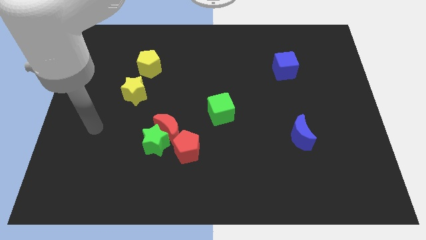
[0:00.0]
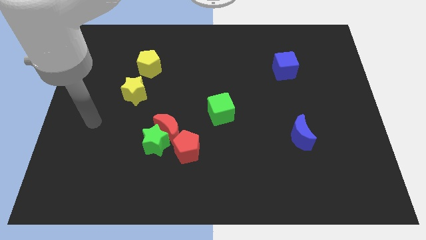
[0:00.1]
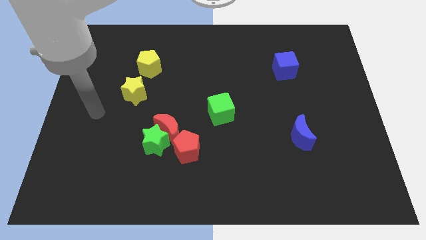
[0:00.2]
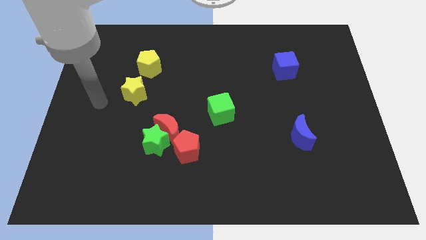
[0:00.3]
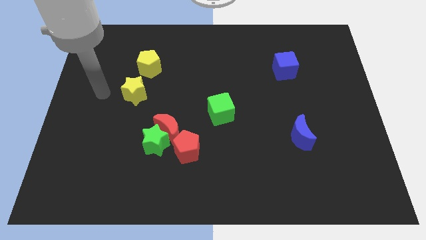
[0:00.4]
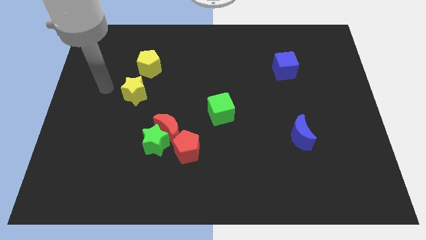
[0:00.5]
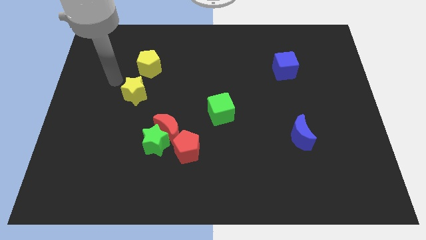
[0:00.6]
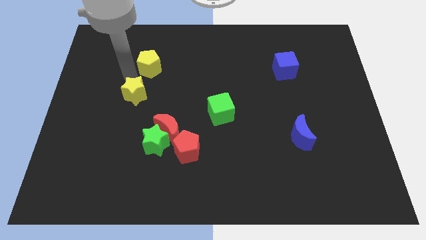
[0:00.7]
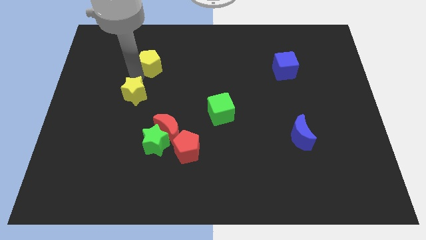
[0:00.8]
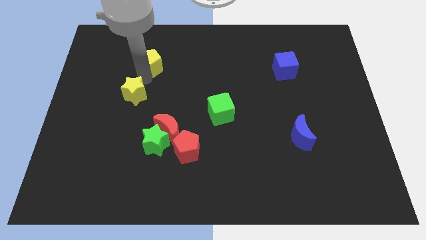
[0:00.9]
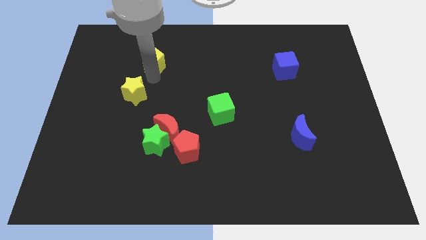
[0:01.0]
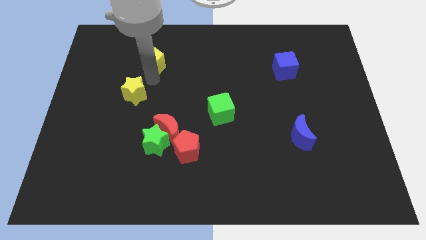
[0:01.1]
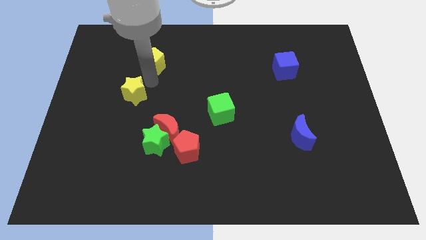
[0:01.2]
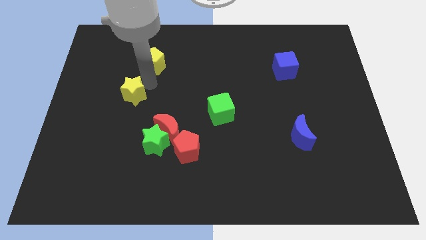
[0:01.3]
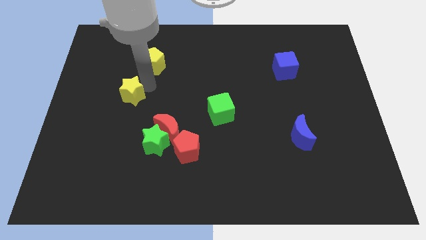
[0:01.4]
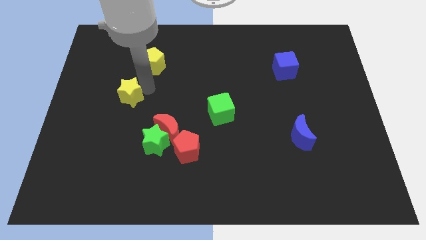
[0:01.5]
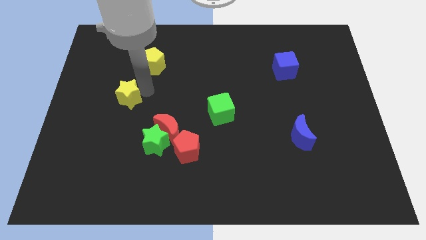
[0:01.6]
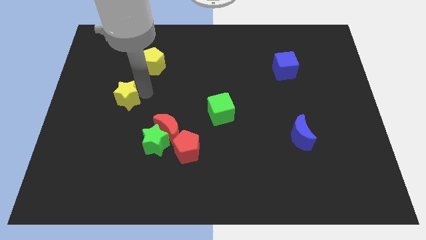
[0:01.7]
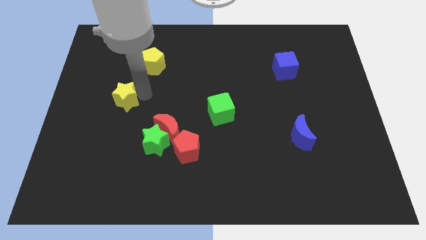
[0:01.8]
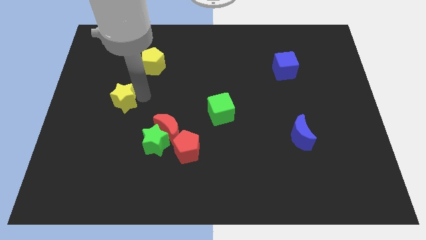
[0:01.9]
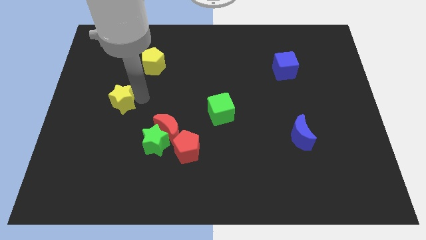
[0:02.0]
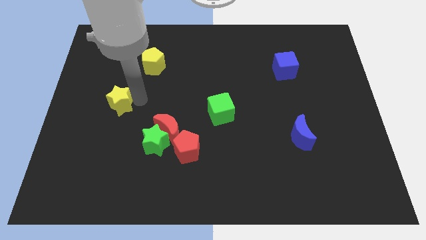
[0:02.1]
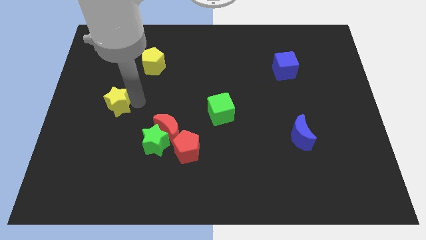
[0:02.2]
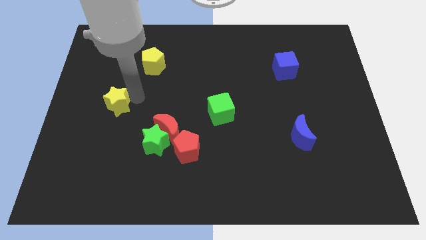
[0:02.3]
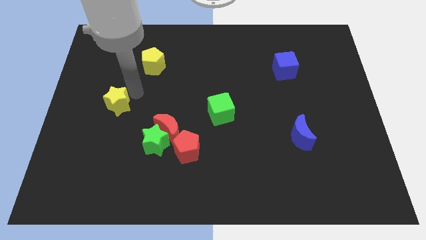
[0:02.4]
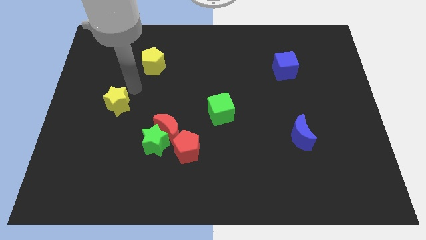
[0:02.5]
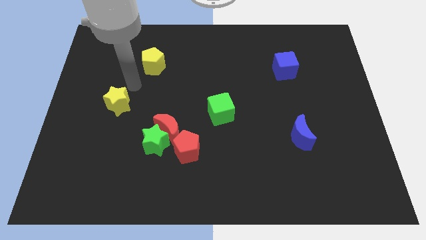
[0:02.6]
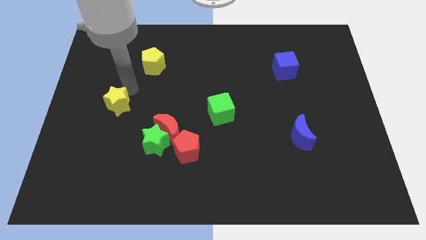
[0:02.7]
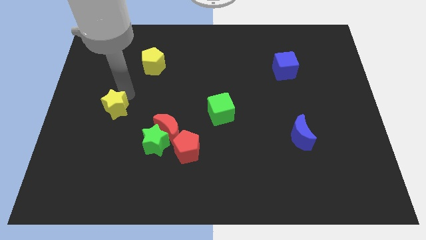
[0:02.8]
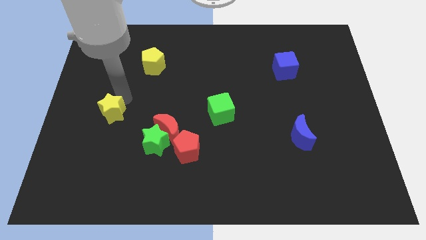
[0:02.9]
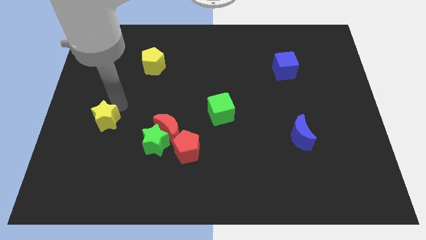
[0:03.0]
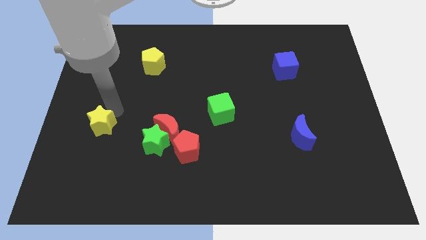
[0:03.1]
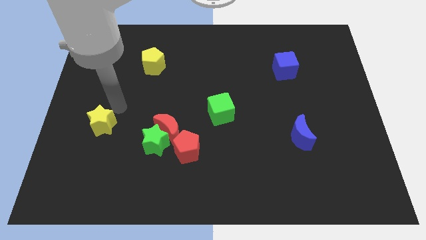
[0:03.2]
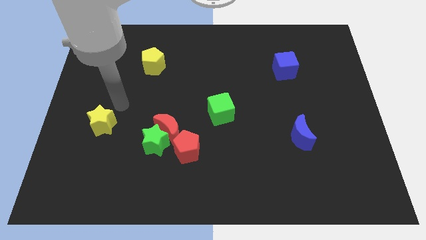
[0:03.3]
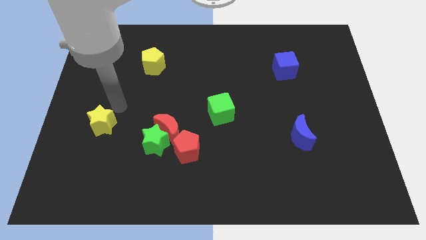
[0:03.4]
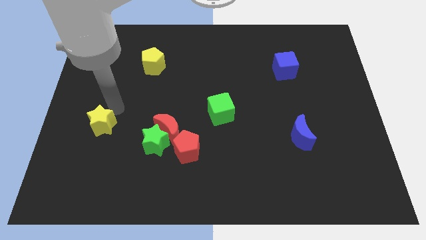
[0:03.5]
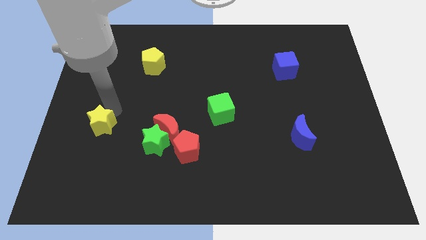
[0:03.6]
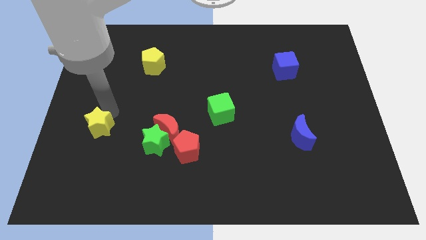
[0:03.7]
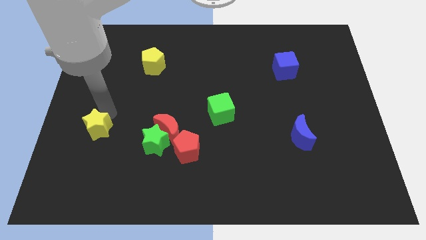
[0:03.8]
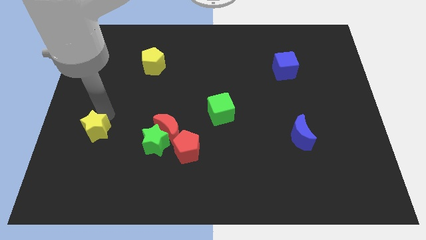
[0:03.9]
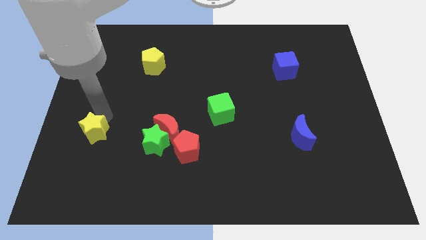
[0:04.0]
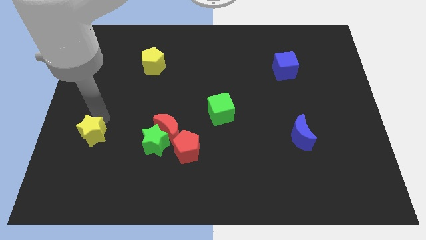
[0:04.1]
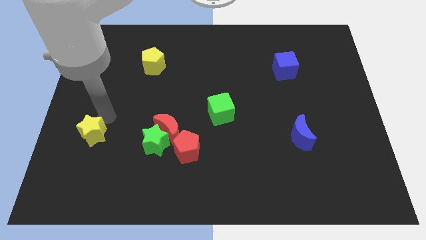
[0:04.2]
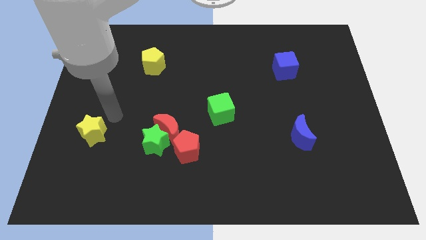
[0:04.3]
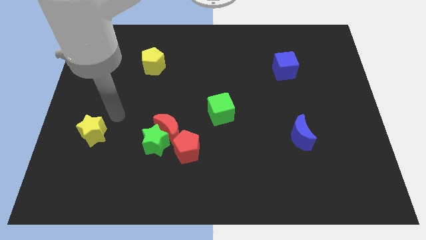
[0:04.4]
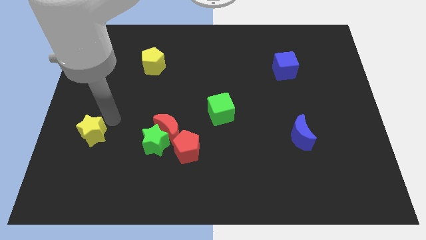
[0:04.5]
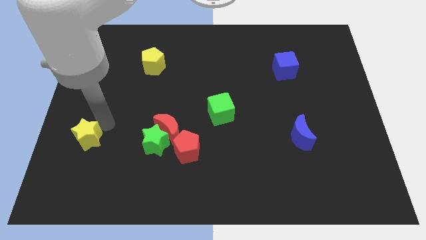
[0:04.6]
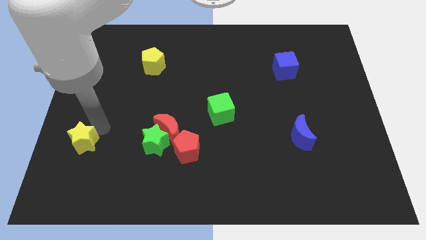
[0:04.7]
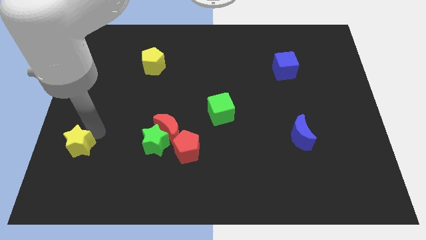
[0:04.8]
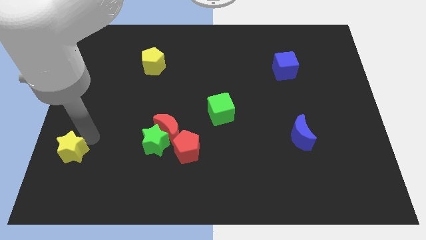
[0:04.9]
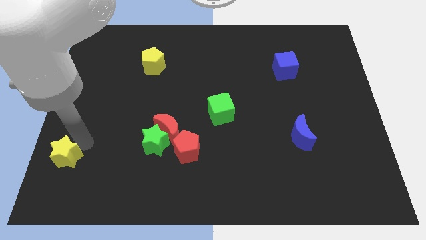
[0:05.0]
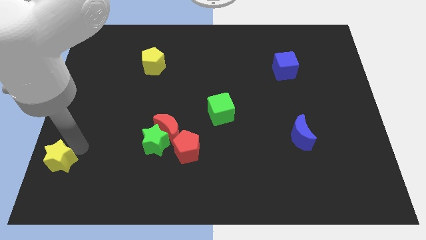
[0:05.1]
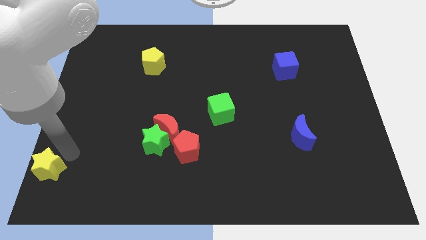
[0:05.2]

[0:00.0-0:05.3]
push the yellow star to the bottom left of the board

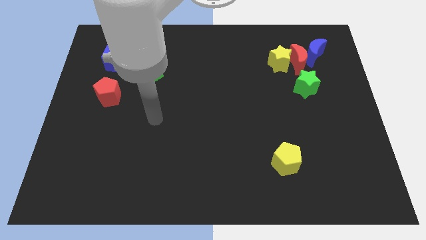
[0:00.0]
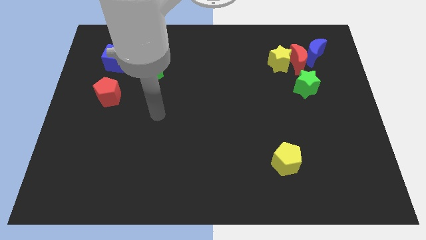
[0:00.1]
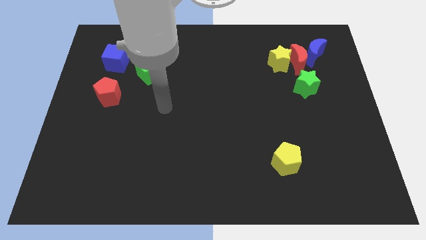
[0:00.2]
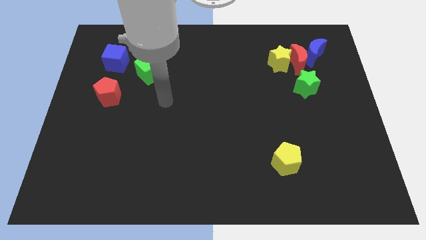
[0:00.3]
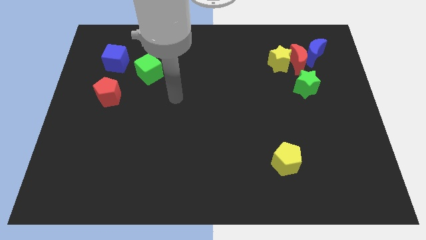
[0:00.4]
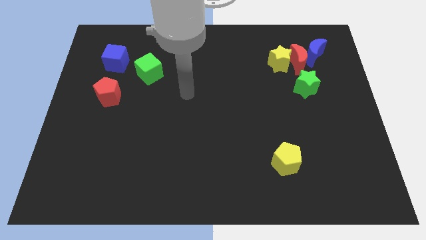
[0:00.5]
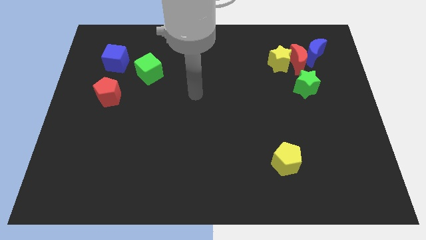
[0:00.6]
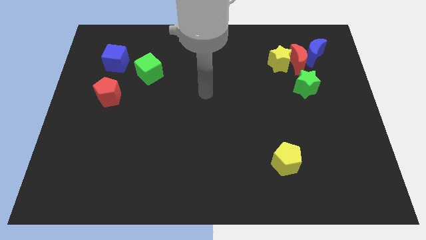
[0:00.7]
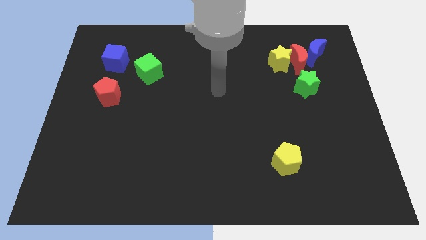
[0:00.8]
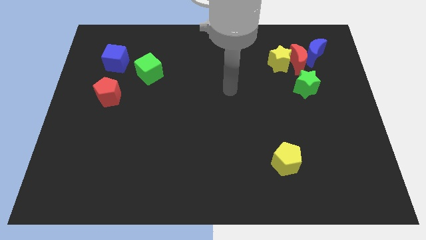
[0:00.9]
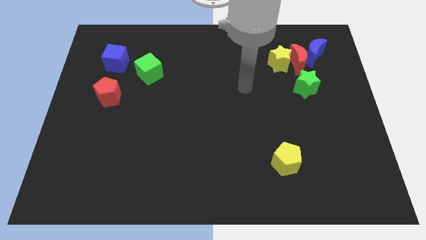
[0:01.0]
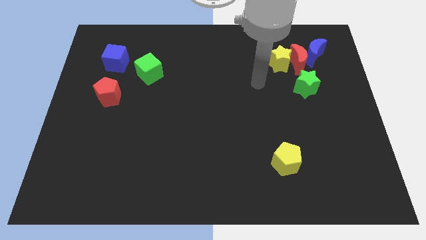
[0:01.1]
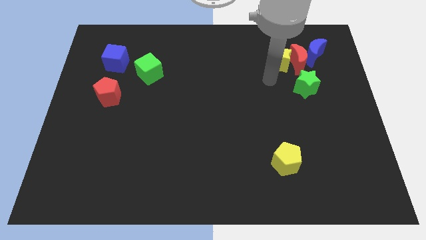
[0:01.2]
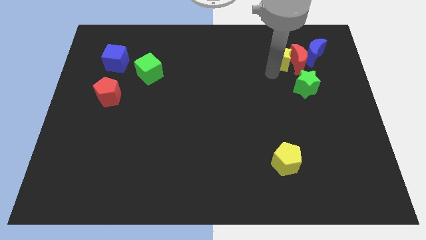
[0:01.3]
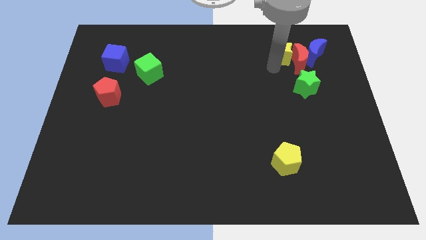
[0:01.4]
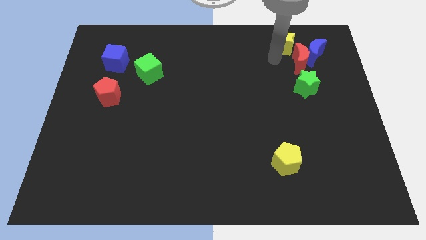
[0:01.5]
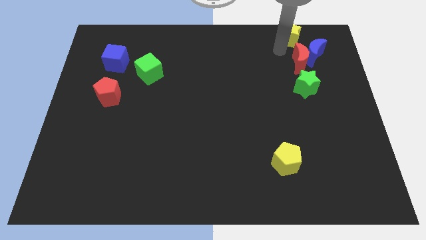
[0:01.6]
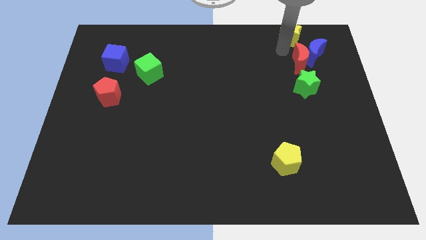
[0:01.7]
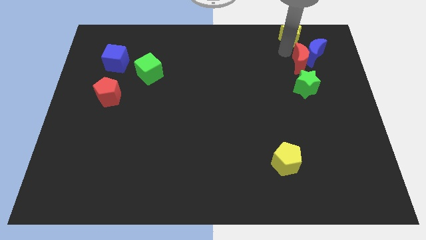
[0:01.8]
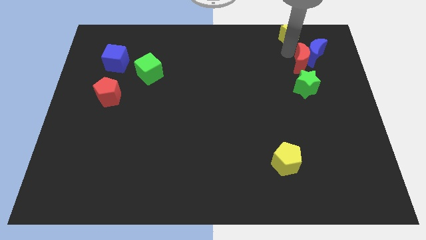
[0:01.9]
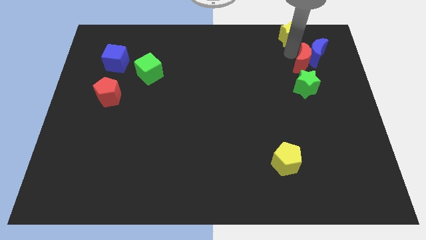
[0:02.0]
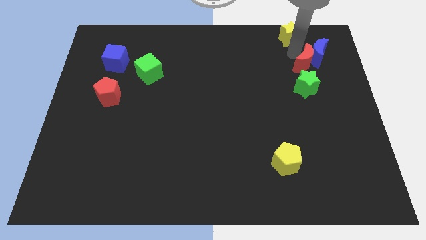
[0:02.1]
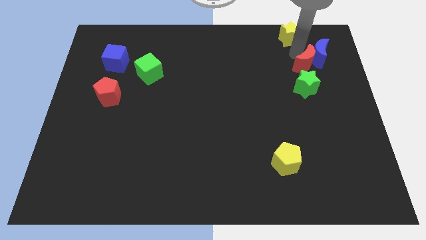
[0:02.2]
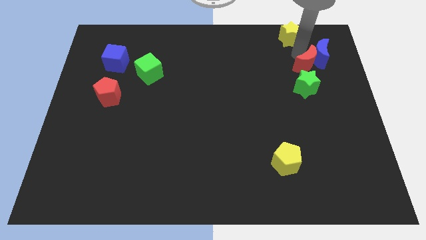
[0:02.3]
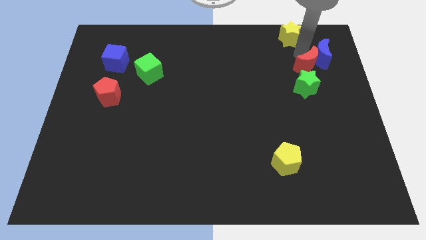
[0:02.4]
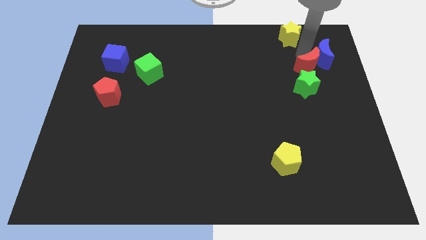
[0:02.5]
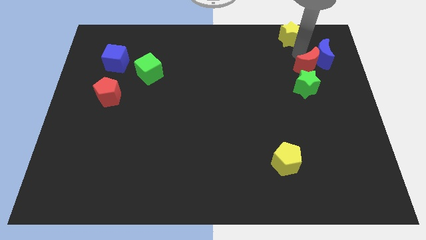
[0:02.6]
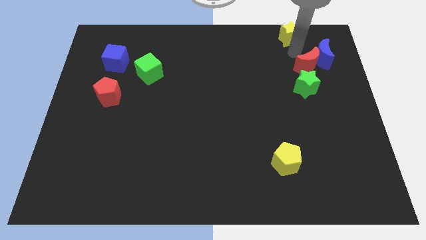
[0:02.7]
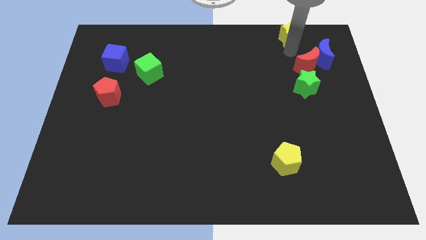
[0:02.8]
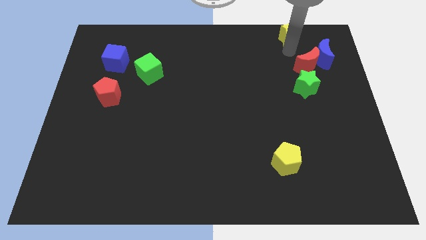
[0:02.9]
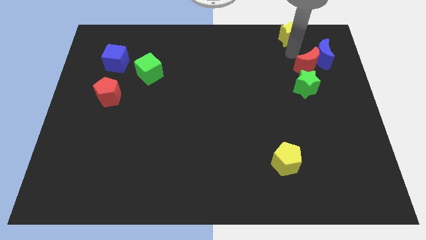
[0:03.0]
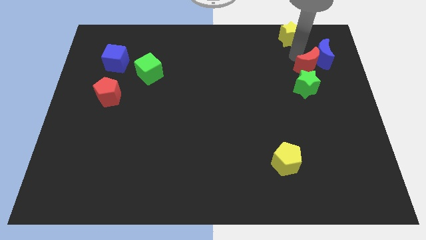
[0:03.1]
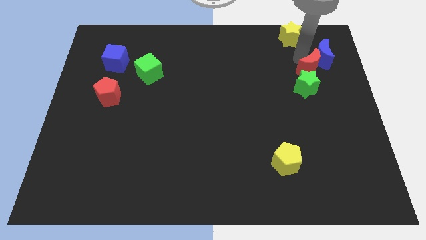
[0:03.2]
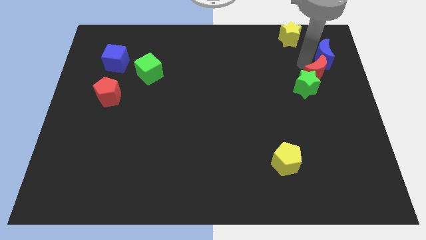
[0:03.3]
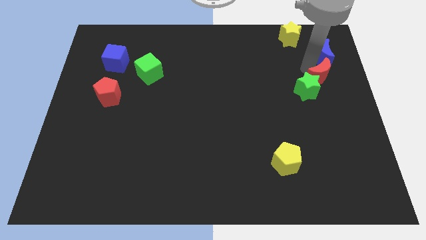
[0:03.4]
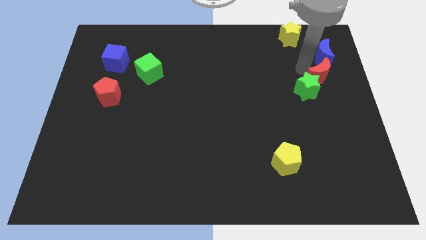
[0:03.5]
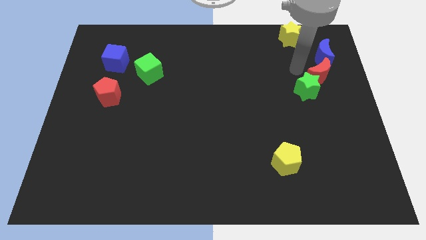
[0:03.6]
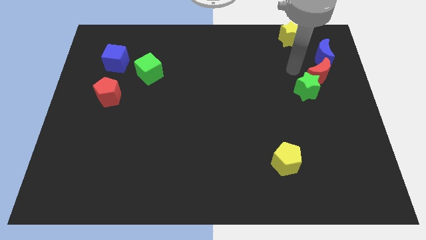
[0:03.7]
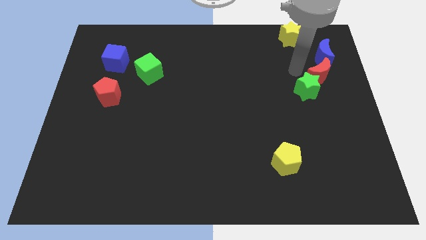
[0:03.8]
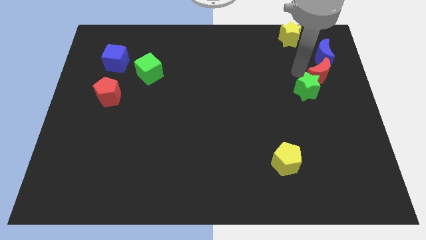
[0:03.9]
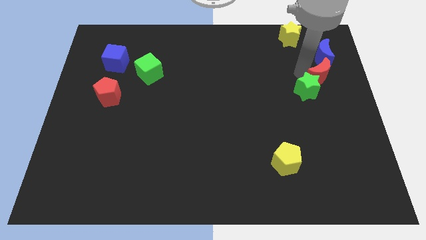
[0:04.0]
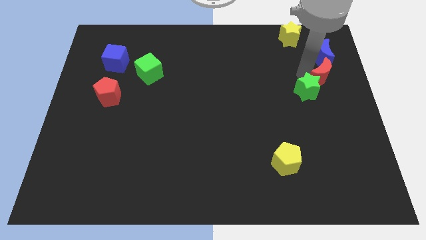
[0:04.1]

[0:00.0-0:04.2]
put the red moon to the right side
